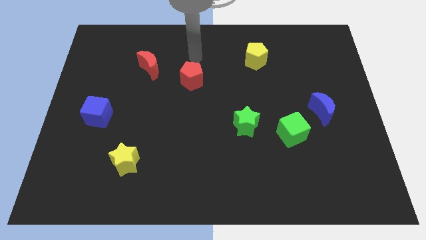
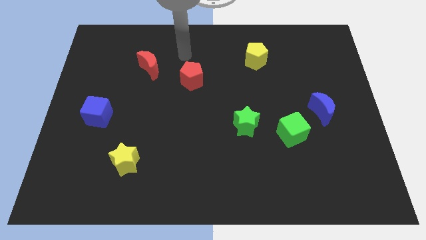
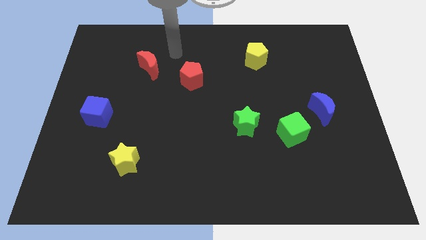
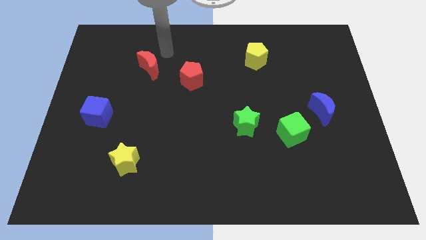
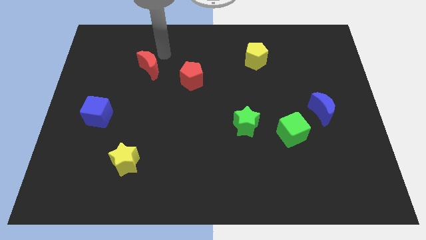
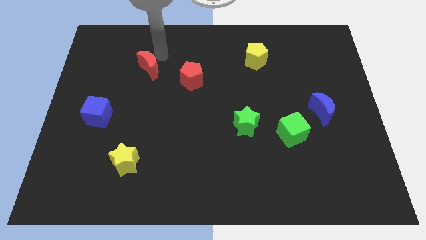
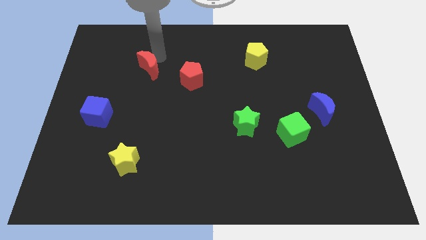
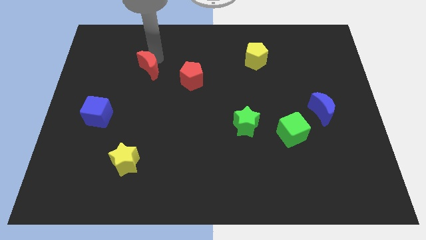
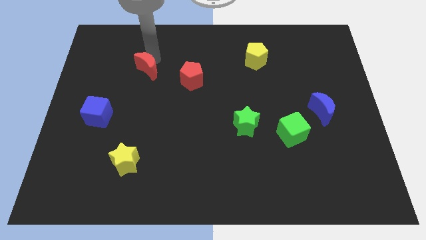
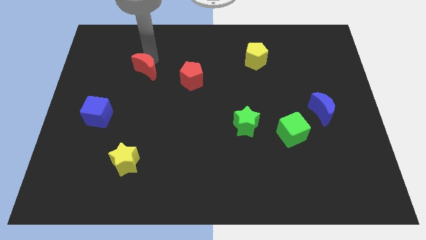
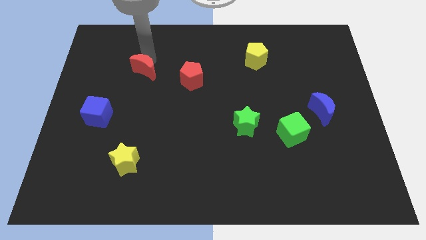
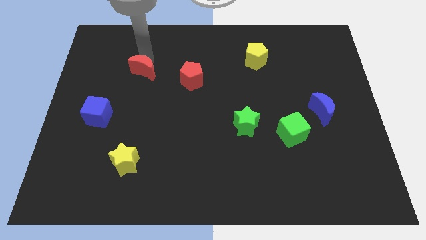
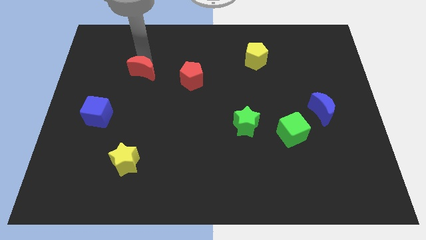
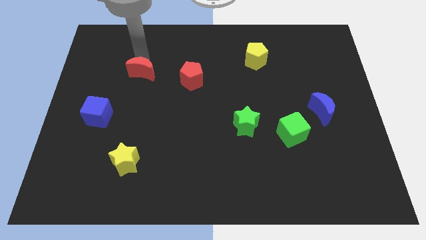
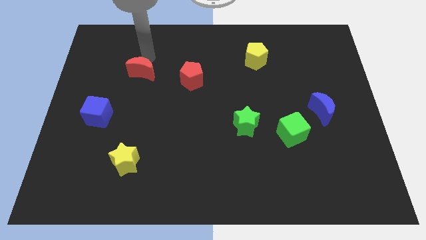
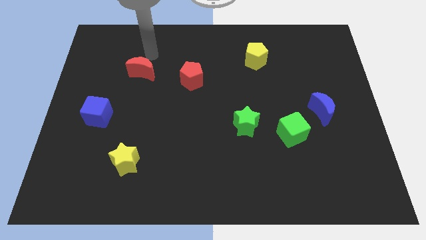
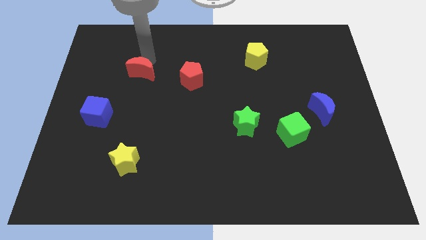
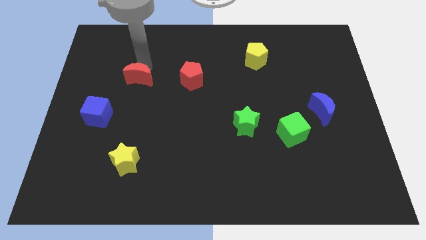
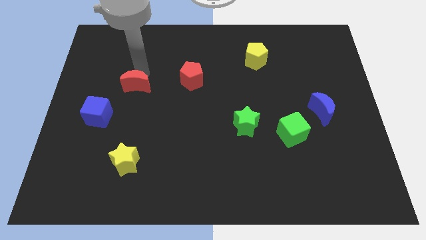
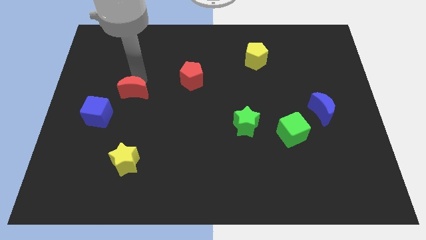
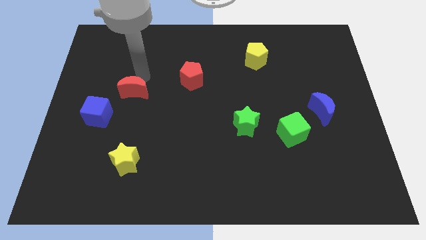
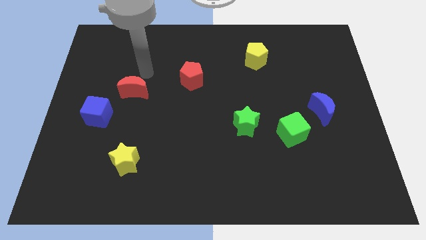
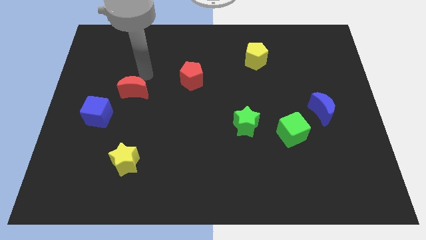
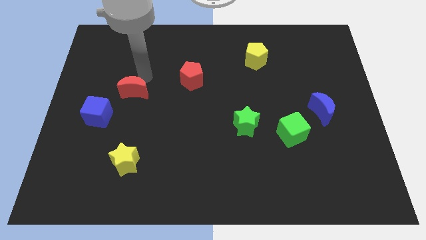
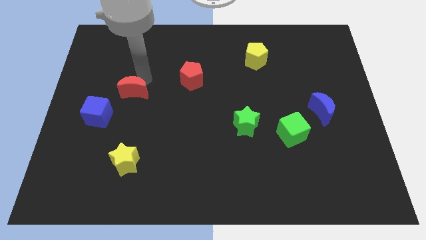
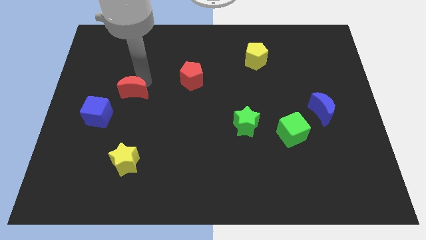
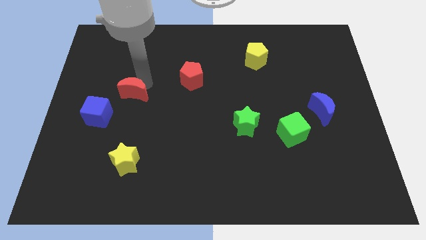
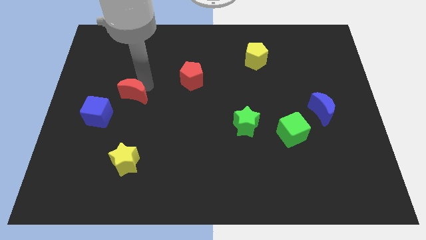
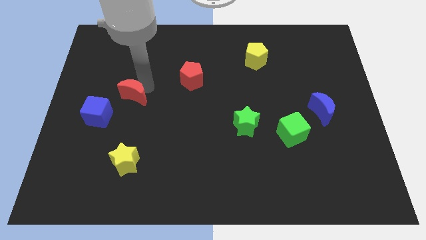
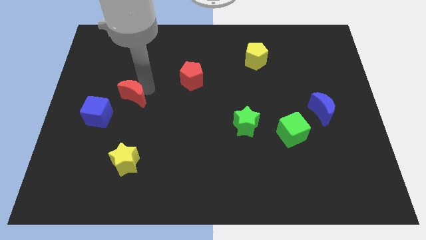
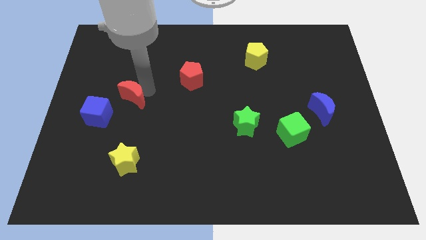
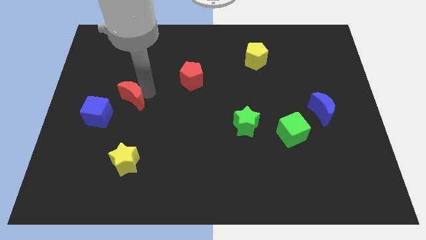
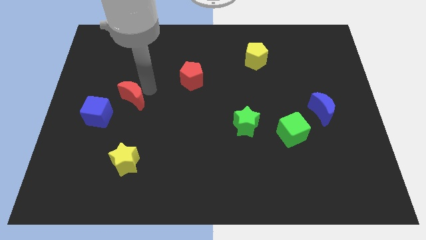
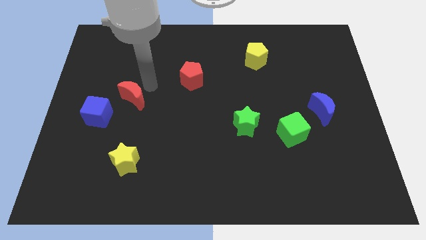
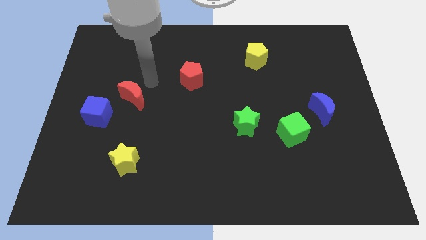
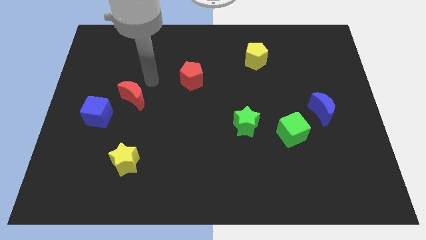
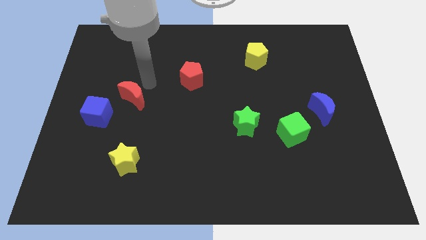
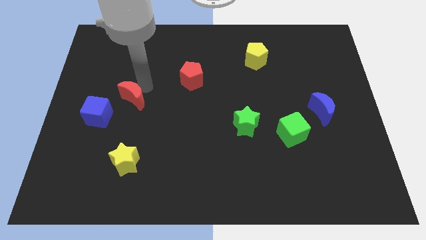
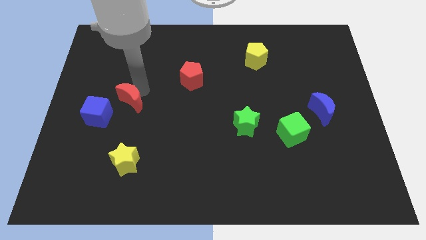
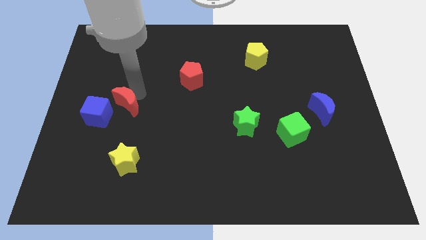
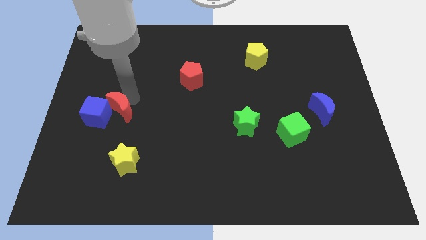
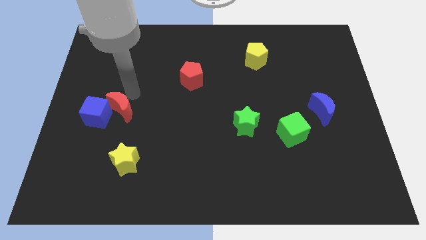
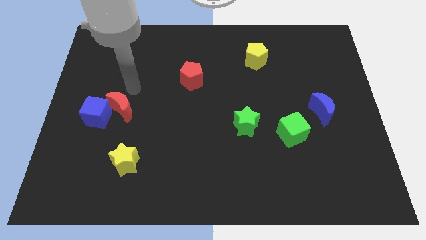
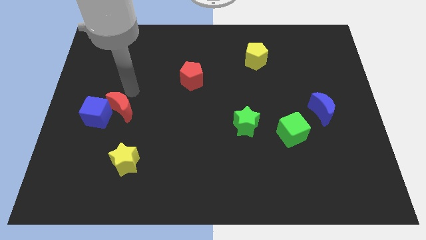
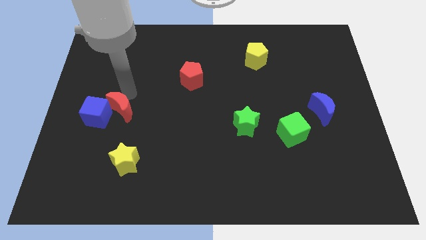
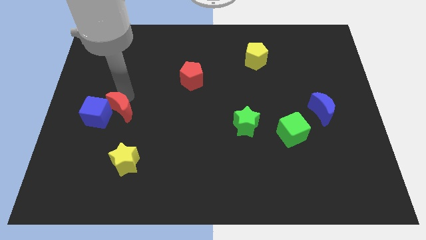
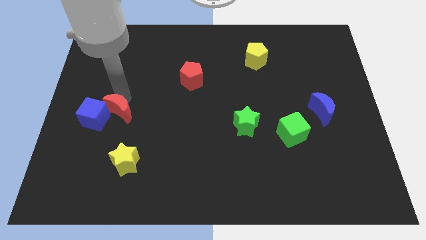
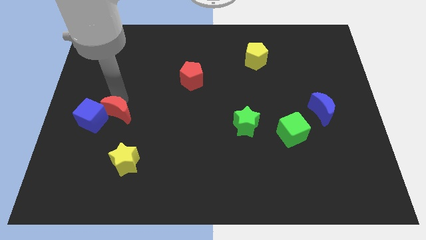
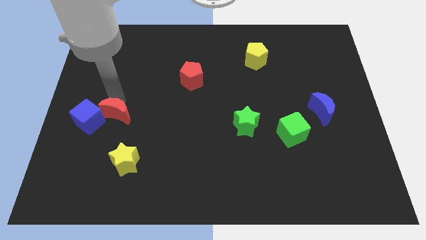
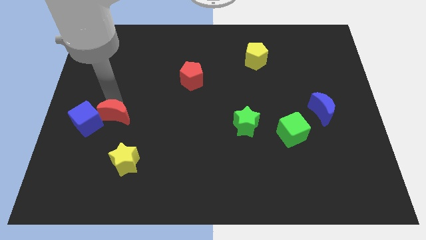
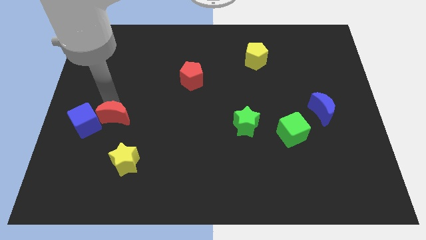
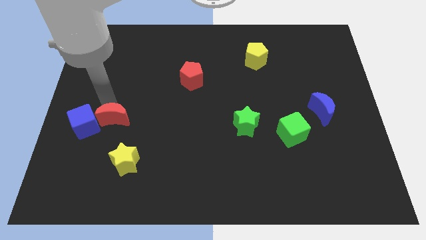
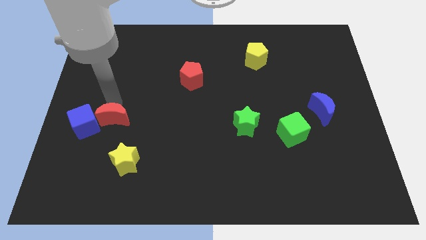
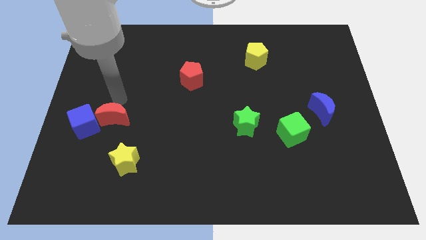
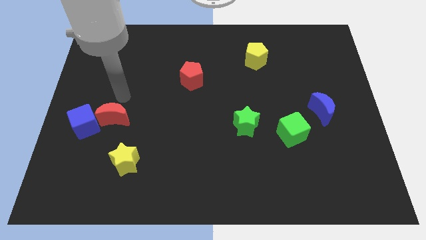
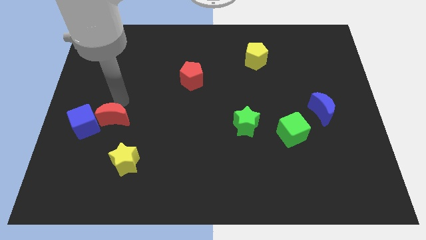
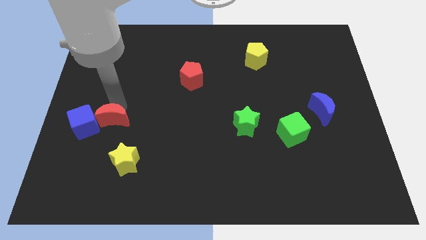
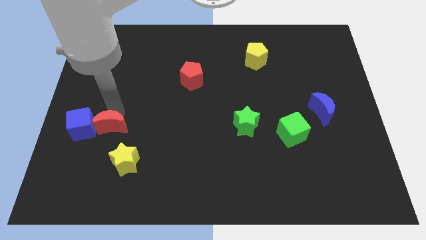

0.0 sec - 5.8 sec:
put the red moon diagonally up and to the left of the yellow star

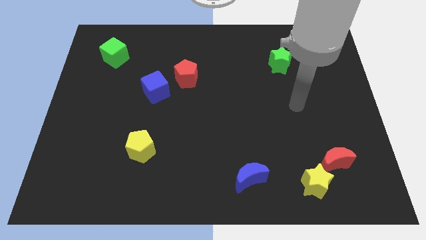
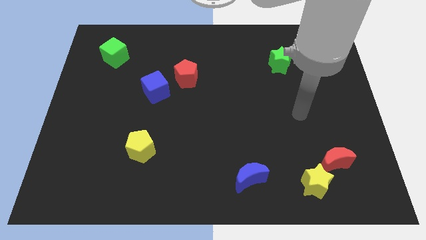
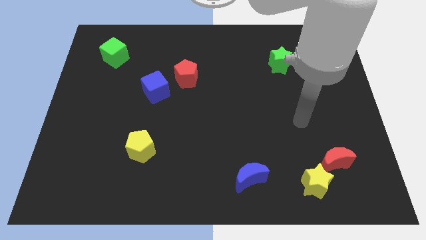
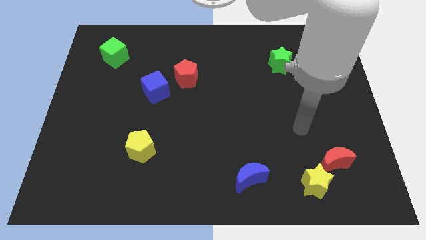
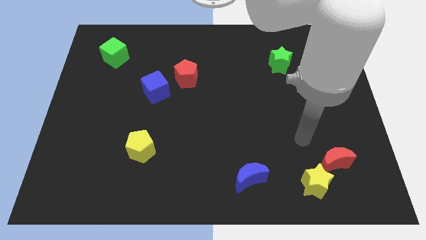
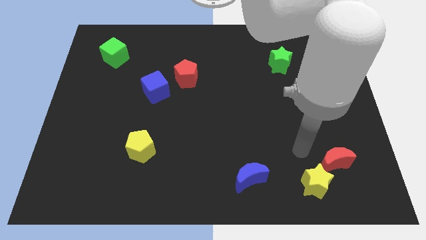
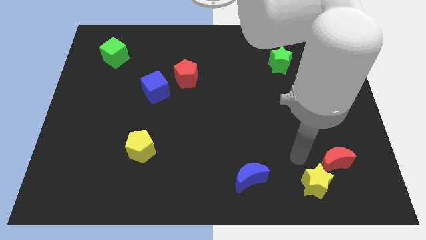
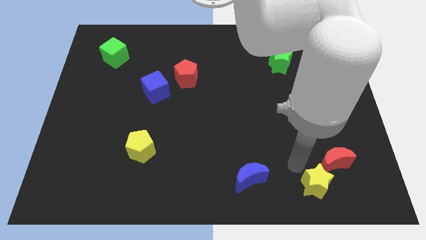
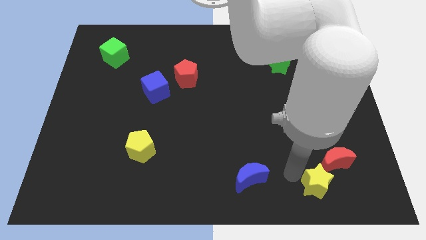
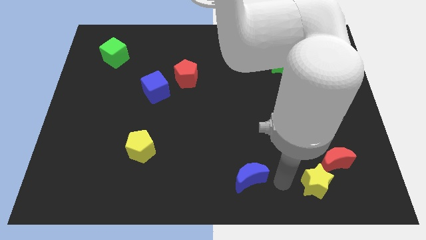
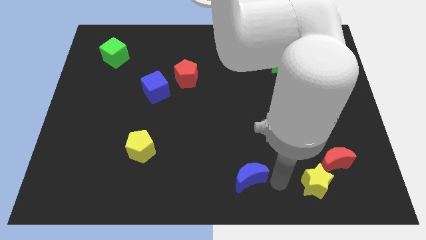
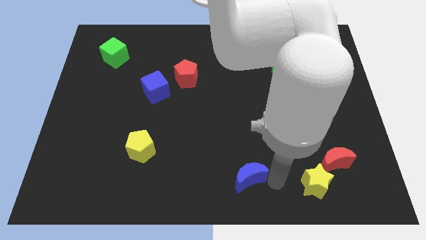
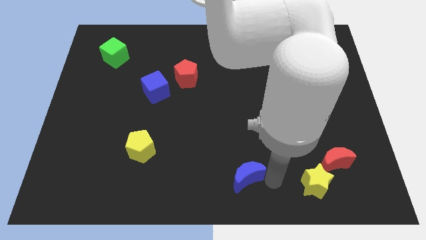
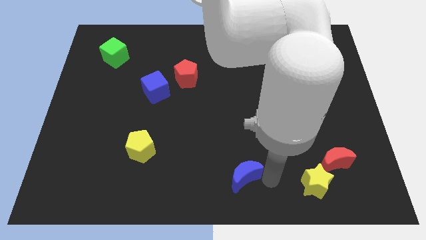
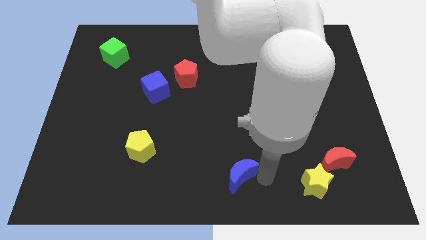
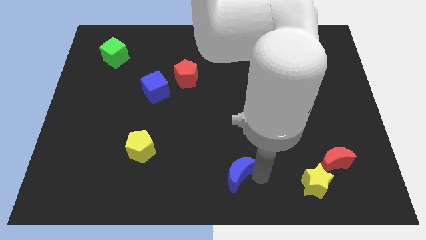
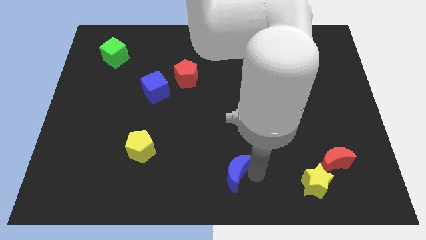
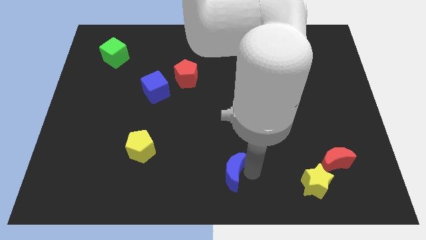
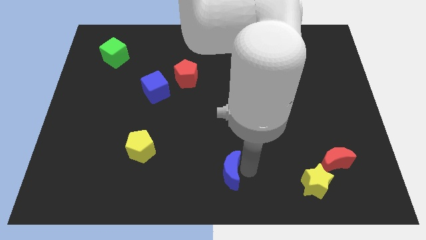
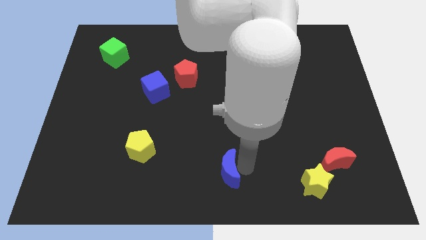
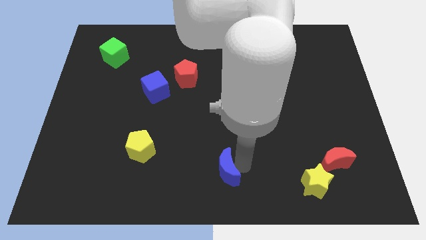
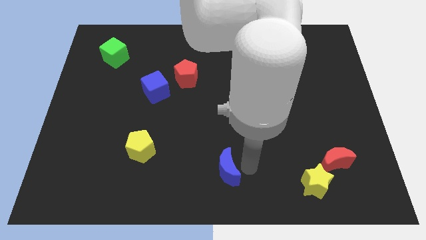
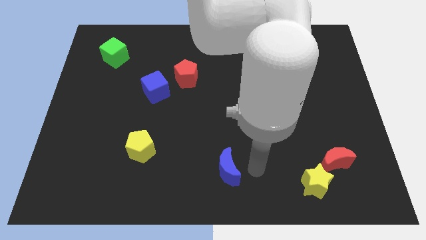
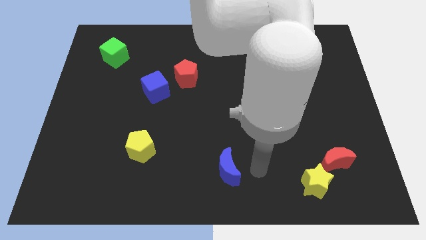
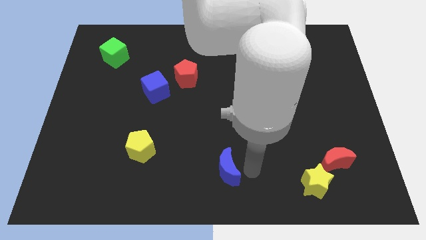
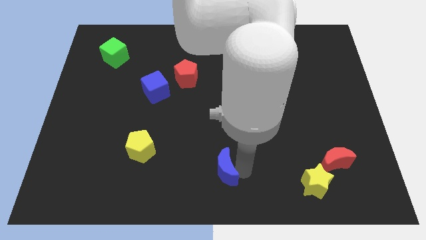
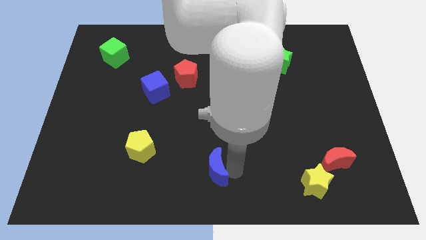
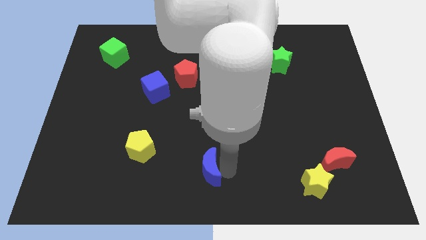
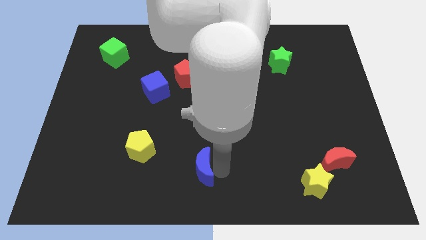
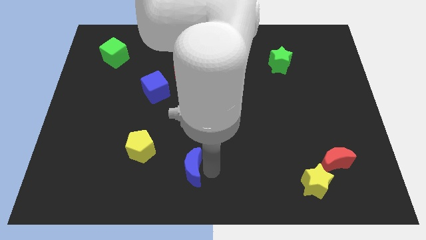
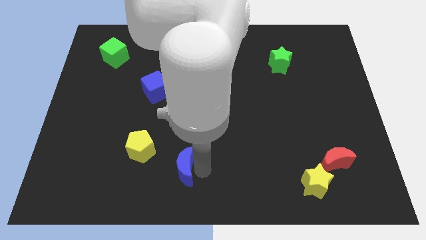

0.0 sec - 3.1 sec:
slide the blue moon diagonally down and to the right of the yellow pentagon
